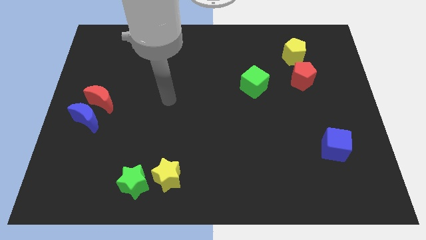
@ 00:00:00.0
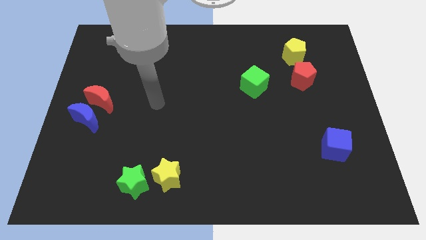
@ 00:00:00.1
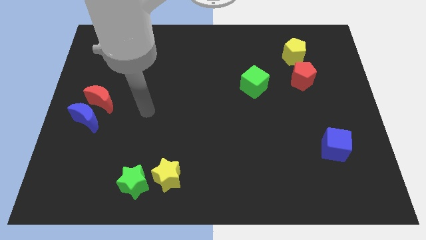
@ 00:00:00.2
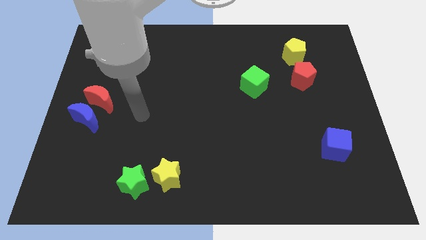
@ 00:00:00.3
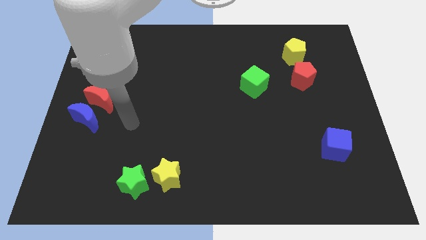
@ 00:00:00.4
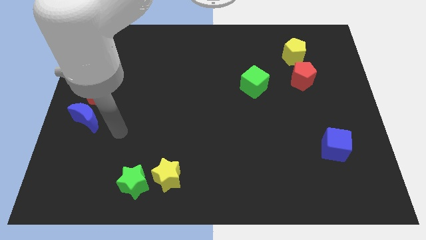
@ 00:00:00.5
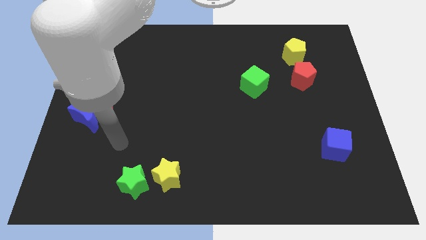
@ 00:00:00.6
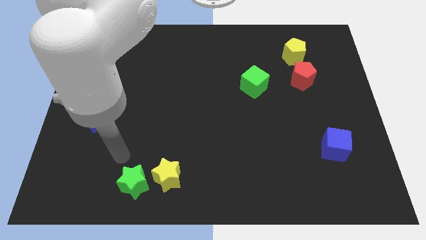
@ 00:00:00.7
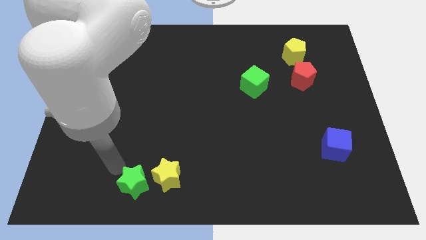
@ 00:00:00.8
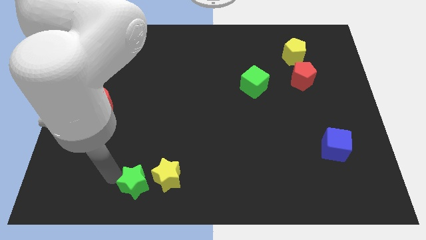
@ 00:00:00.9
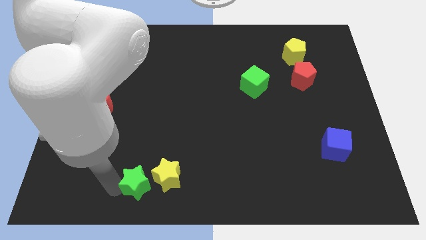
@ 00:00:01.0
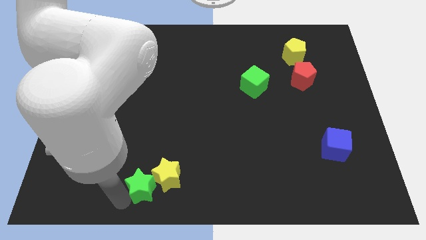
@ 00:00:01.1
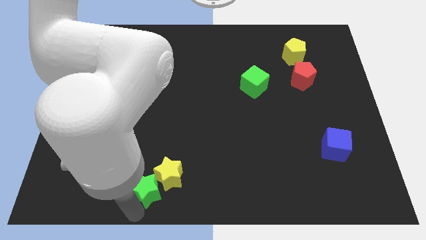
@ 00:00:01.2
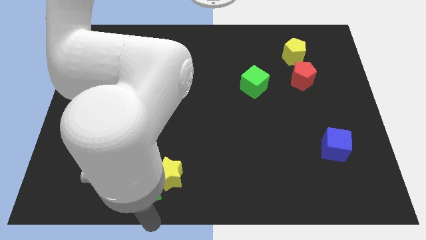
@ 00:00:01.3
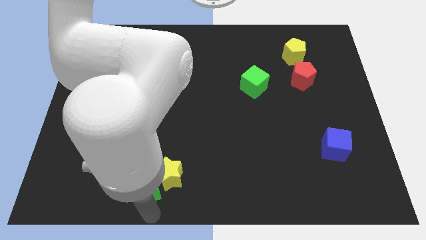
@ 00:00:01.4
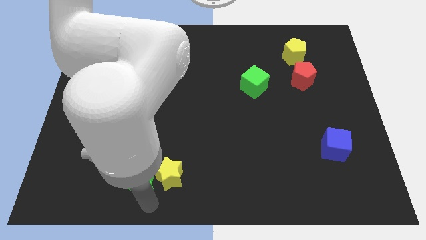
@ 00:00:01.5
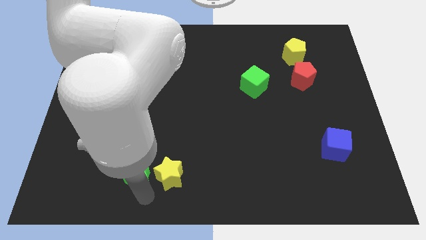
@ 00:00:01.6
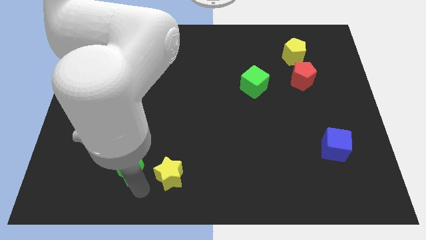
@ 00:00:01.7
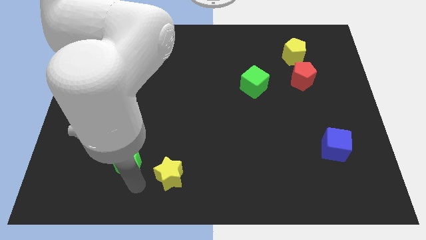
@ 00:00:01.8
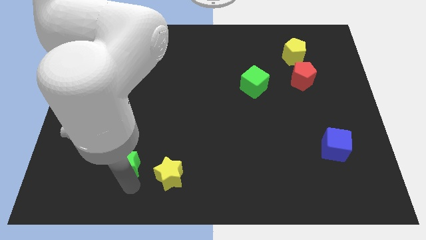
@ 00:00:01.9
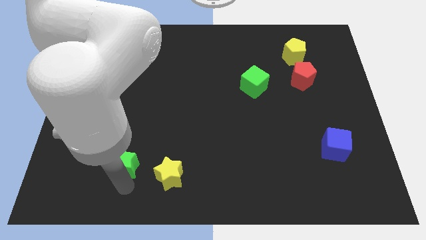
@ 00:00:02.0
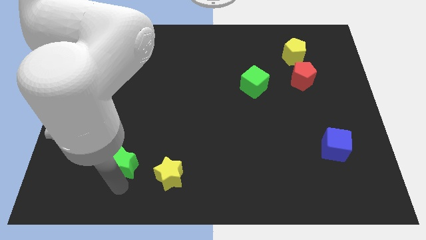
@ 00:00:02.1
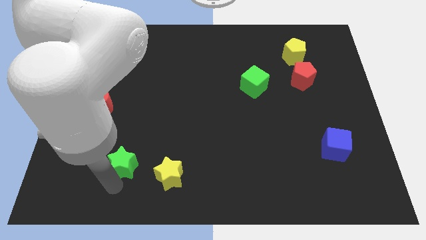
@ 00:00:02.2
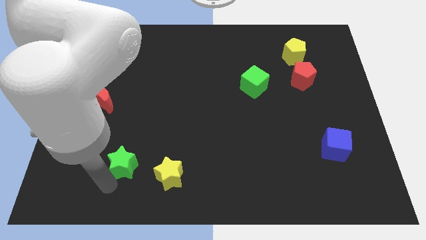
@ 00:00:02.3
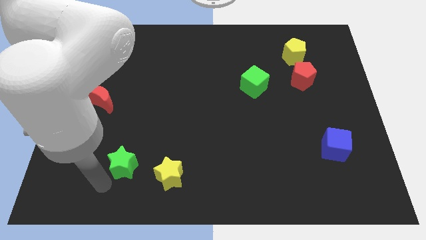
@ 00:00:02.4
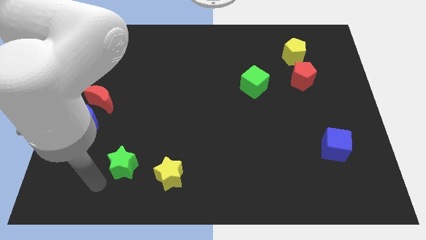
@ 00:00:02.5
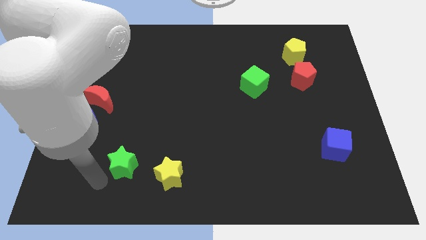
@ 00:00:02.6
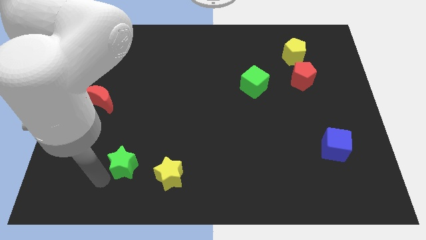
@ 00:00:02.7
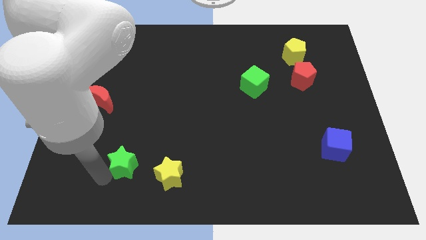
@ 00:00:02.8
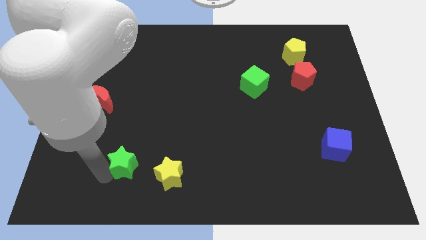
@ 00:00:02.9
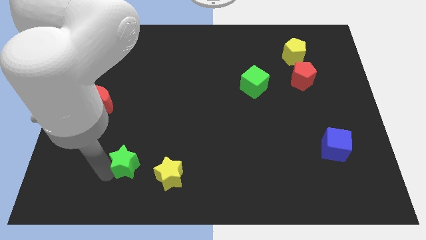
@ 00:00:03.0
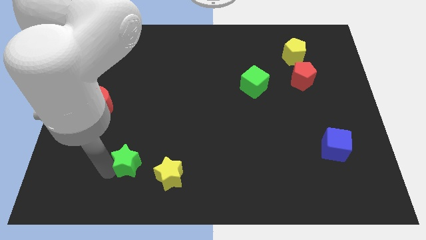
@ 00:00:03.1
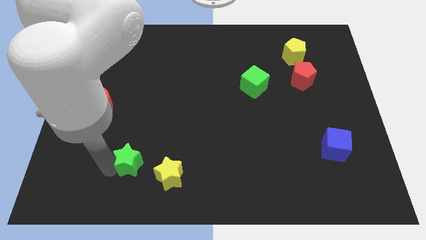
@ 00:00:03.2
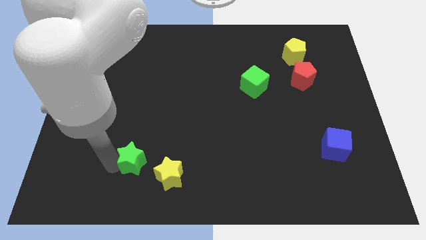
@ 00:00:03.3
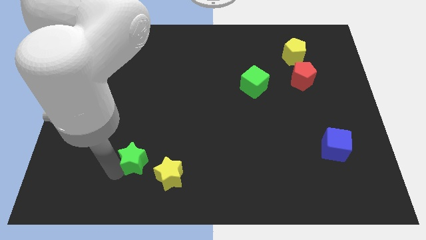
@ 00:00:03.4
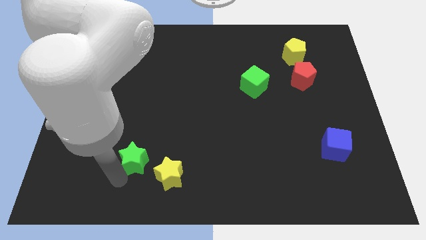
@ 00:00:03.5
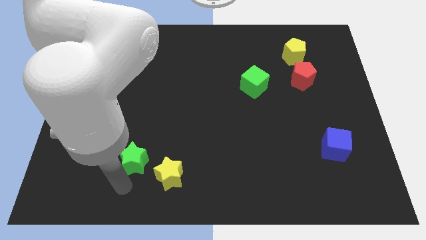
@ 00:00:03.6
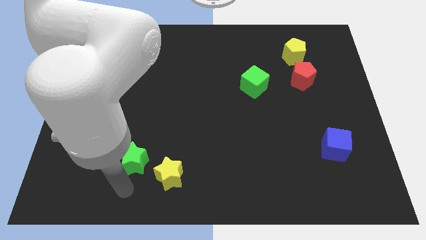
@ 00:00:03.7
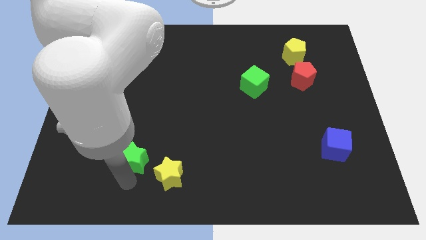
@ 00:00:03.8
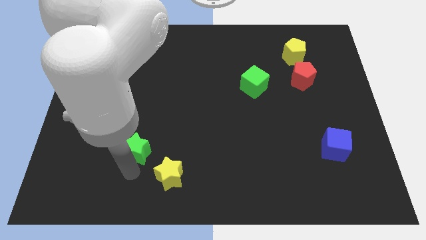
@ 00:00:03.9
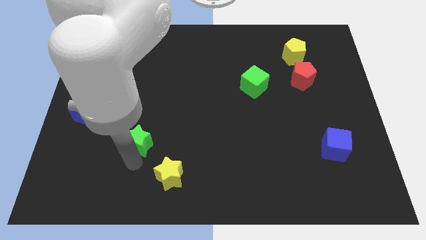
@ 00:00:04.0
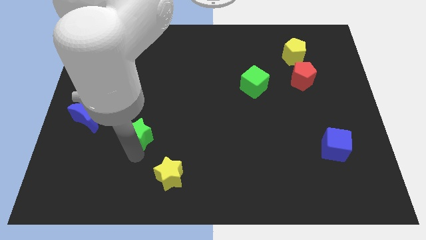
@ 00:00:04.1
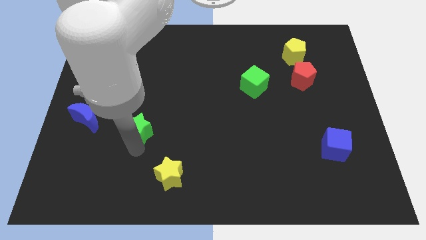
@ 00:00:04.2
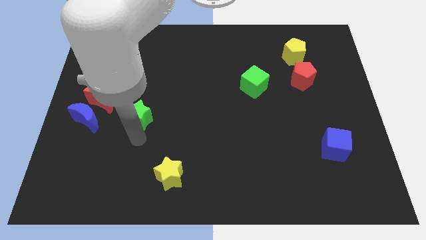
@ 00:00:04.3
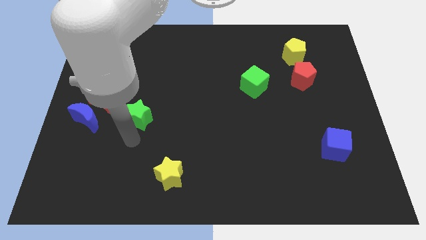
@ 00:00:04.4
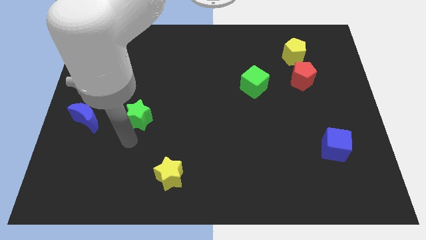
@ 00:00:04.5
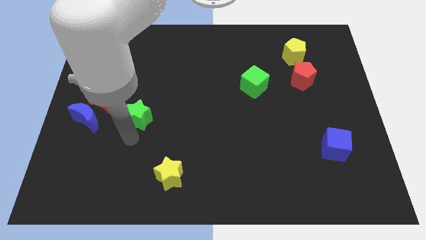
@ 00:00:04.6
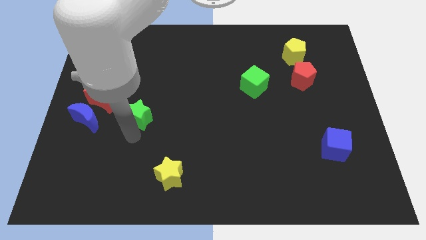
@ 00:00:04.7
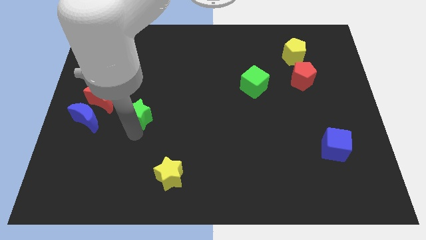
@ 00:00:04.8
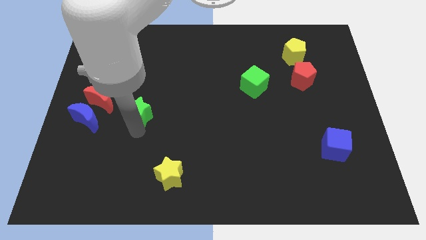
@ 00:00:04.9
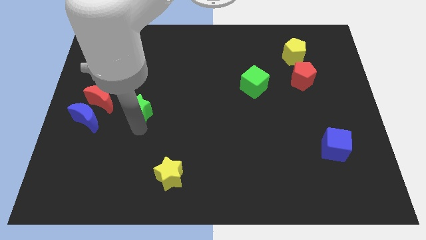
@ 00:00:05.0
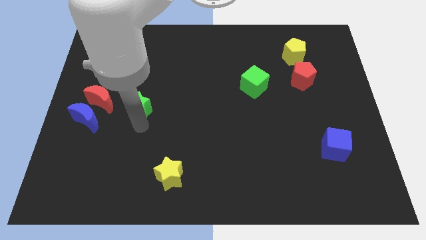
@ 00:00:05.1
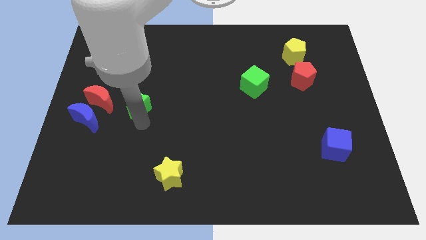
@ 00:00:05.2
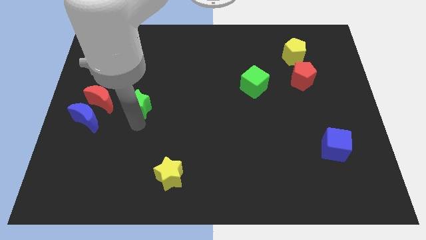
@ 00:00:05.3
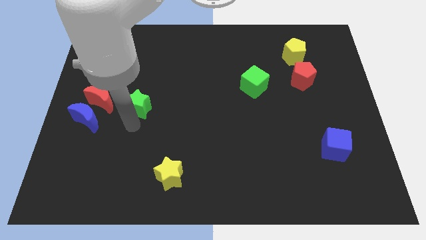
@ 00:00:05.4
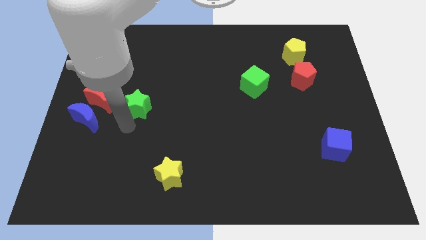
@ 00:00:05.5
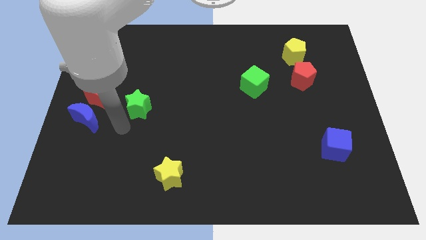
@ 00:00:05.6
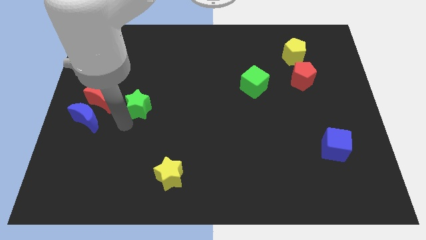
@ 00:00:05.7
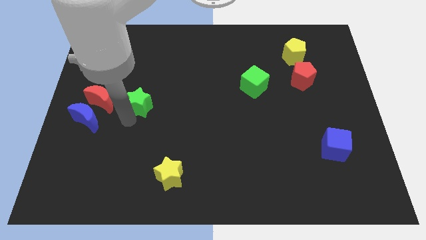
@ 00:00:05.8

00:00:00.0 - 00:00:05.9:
slide the green star up

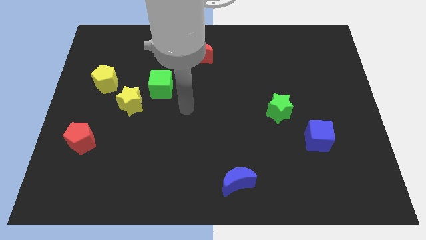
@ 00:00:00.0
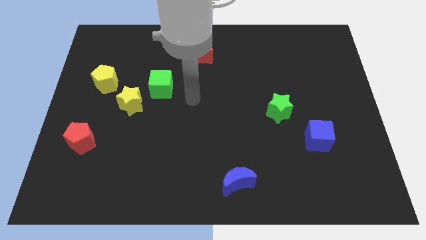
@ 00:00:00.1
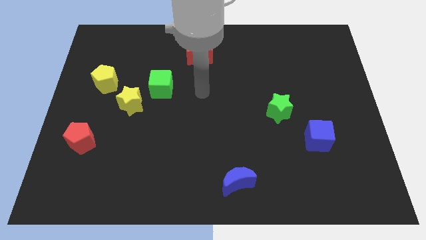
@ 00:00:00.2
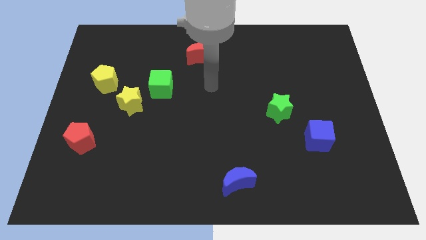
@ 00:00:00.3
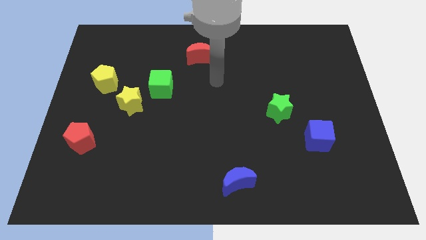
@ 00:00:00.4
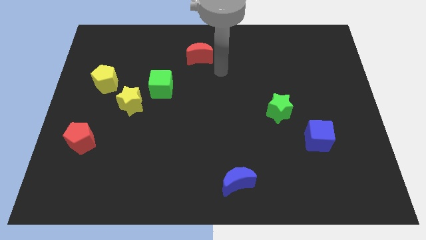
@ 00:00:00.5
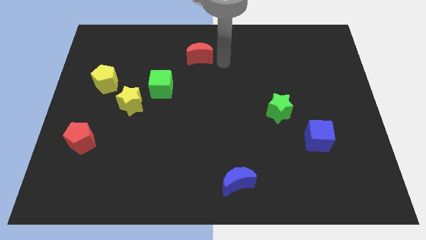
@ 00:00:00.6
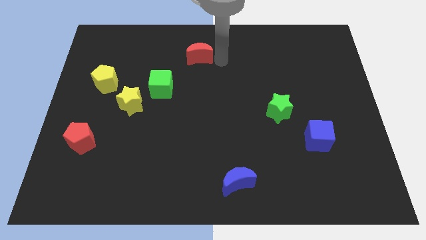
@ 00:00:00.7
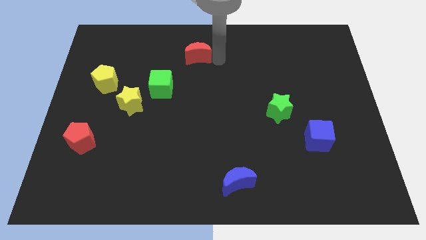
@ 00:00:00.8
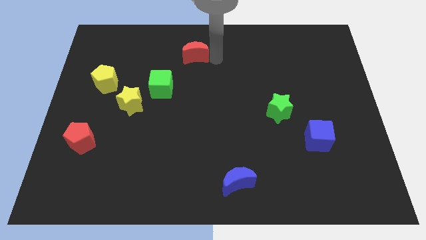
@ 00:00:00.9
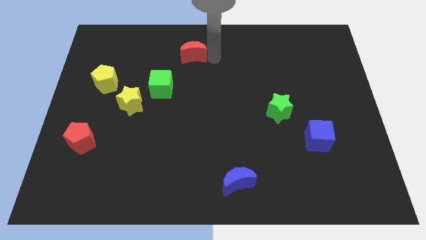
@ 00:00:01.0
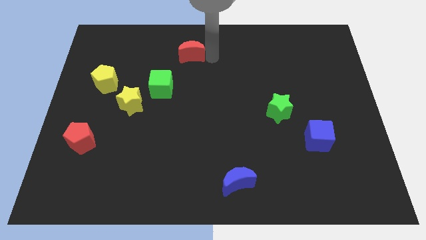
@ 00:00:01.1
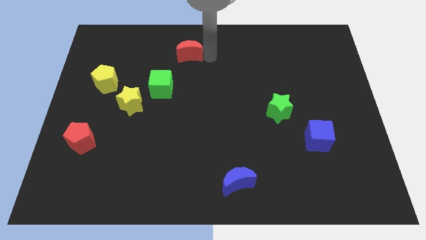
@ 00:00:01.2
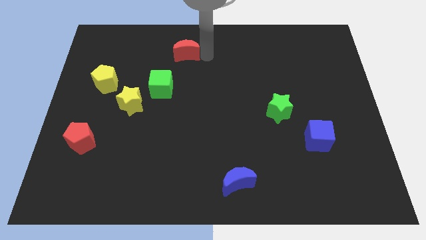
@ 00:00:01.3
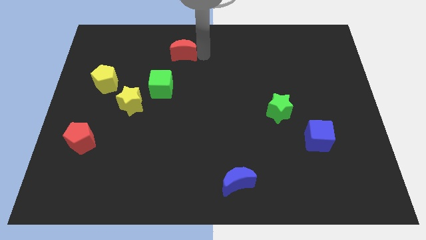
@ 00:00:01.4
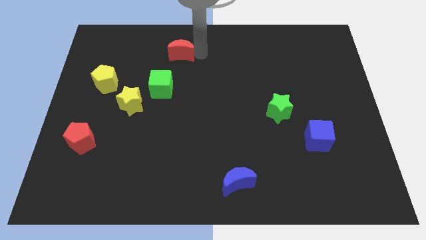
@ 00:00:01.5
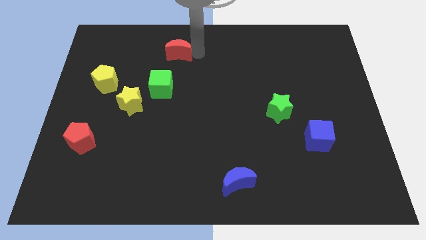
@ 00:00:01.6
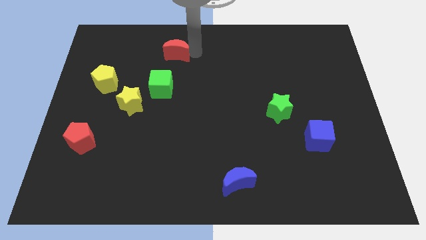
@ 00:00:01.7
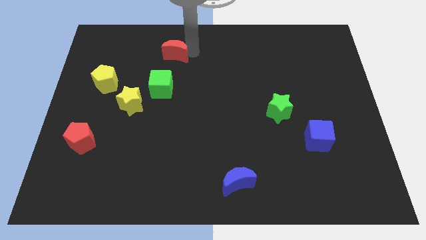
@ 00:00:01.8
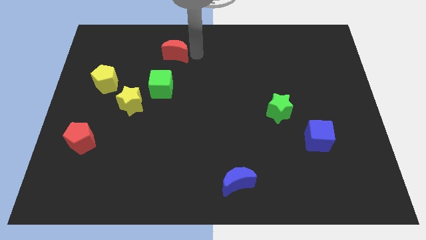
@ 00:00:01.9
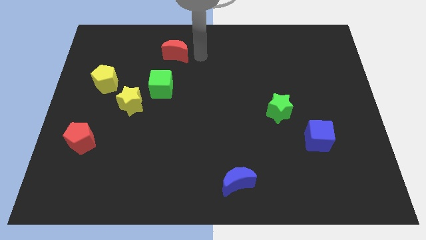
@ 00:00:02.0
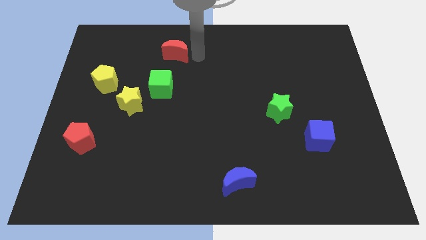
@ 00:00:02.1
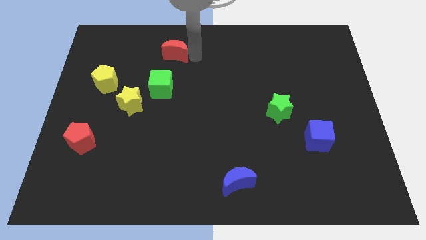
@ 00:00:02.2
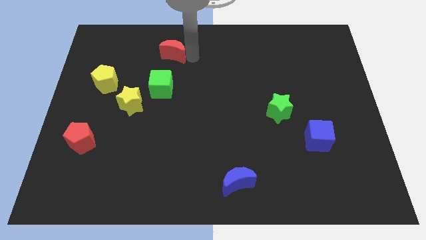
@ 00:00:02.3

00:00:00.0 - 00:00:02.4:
push the red moon left slightly
